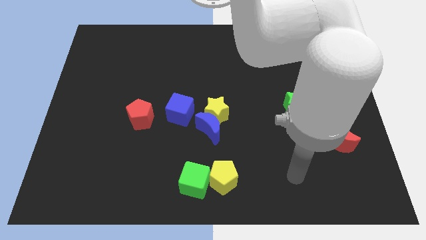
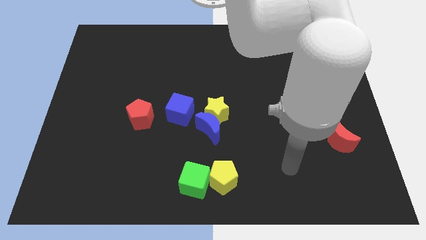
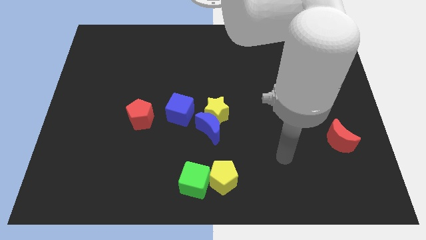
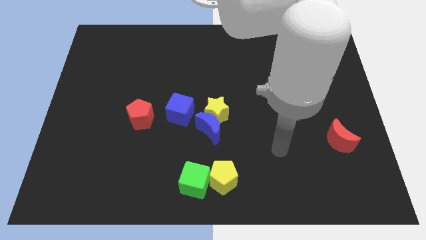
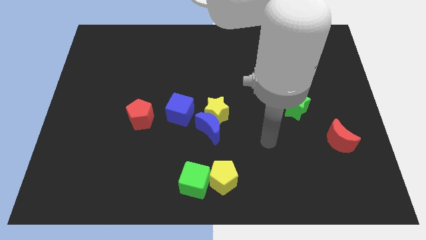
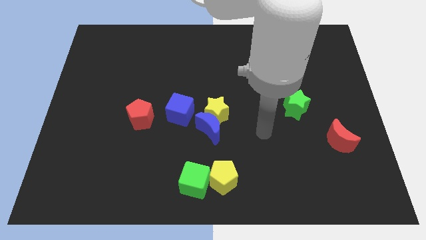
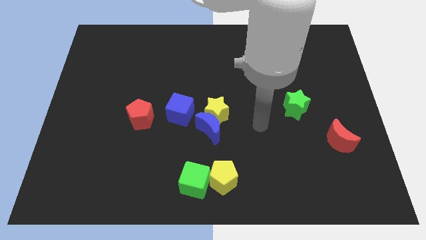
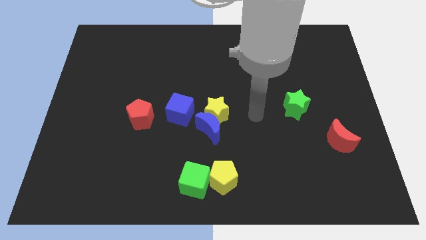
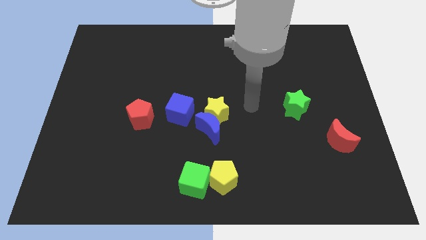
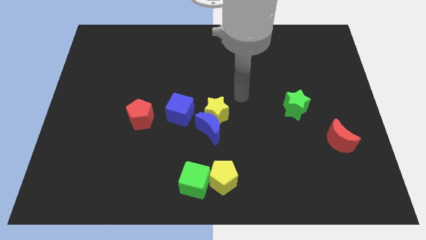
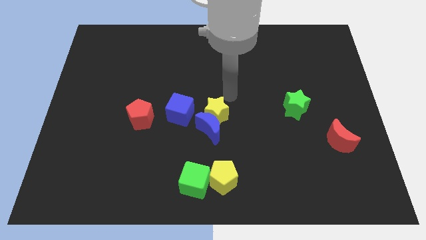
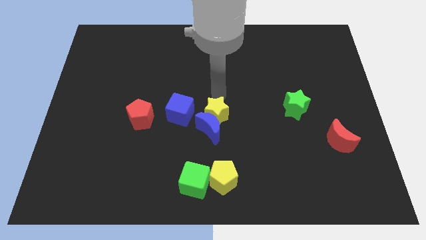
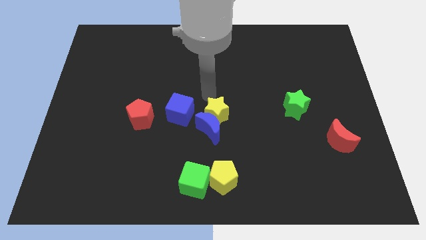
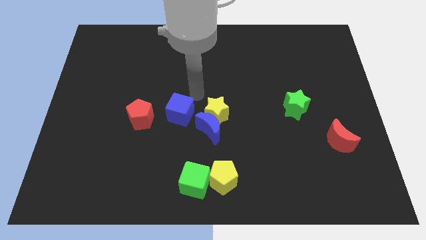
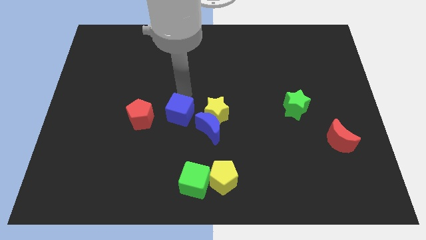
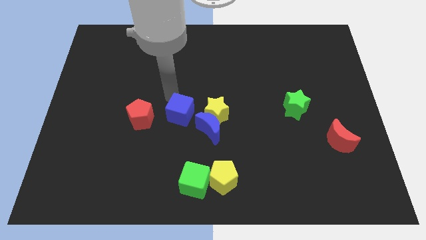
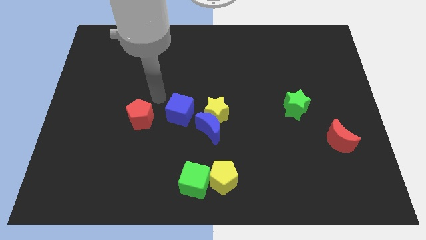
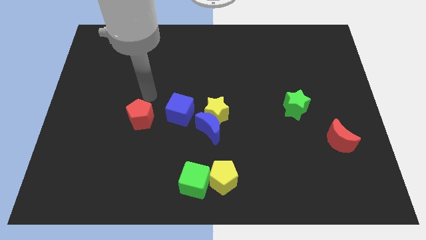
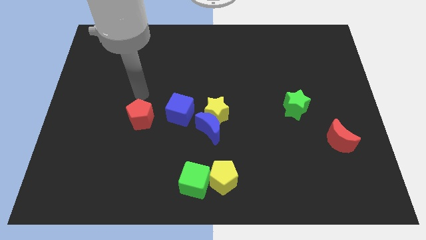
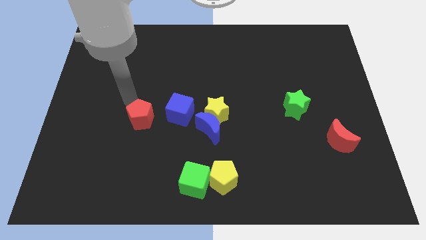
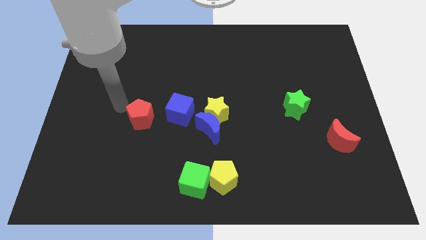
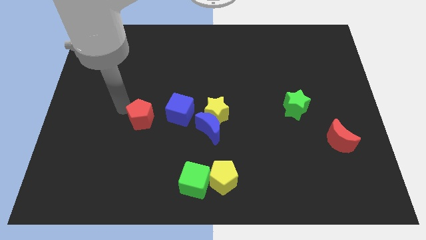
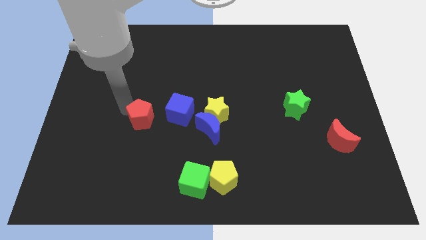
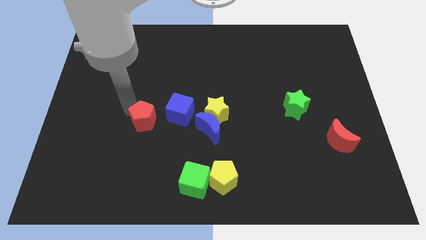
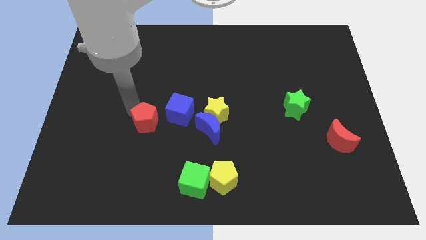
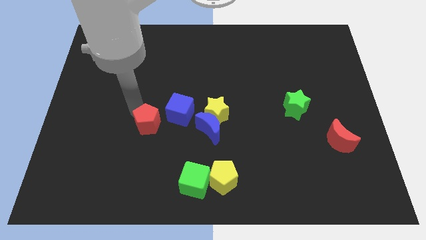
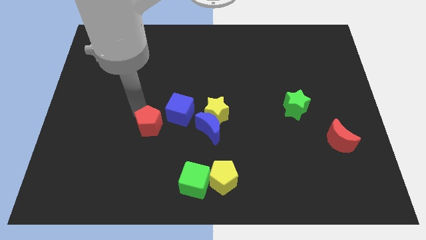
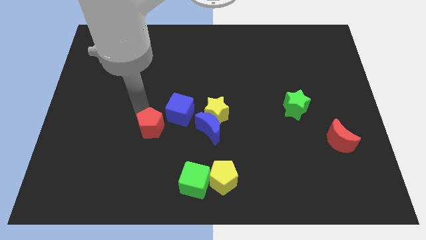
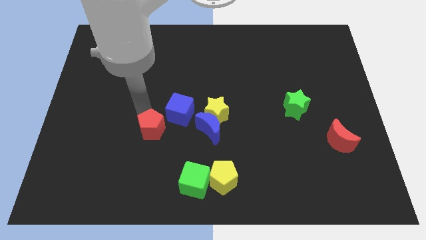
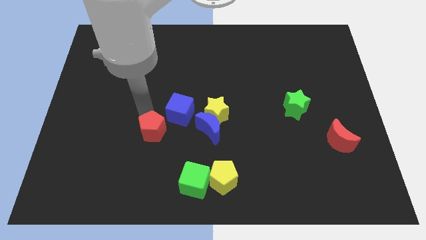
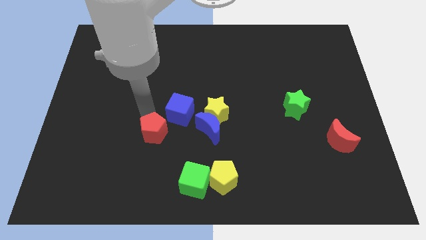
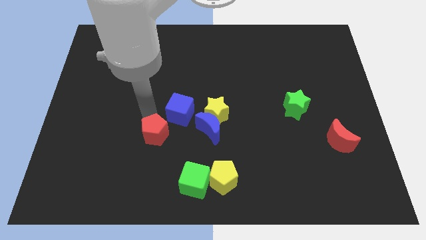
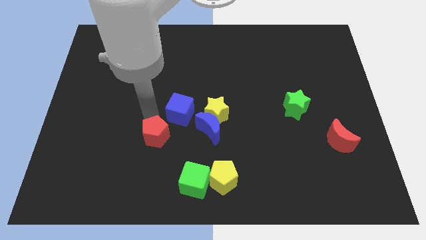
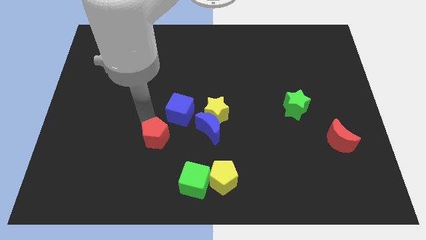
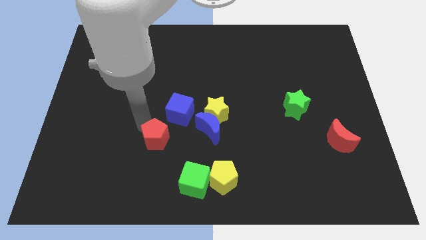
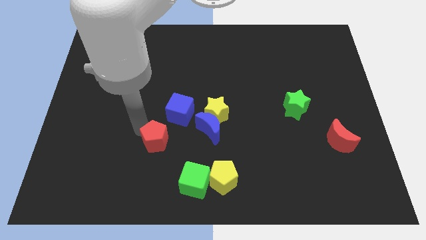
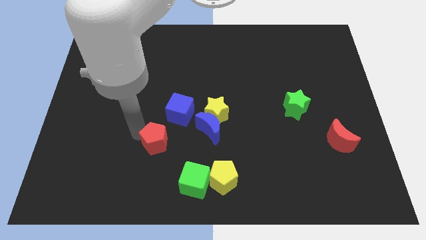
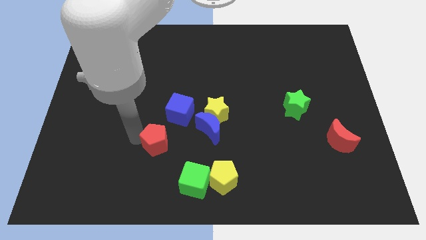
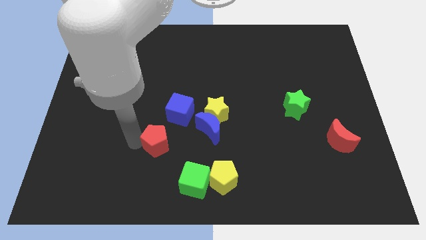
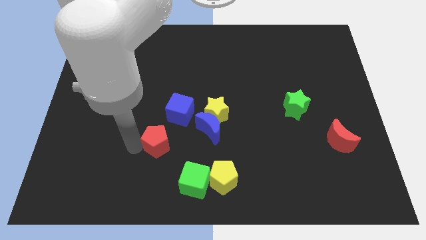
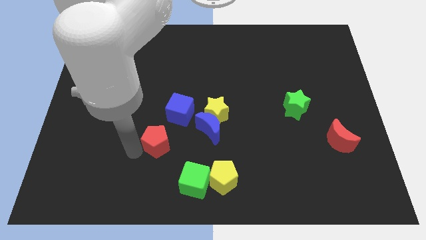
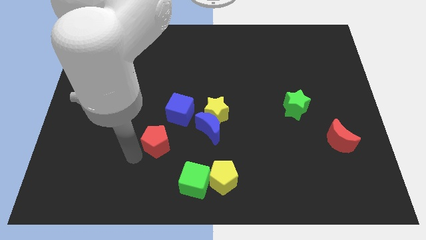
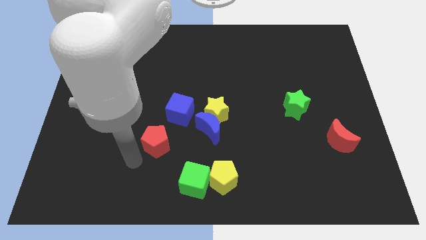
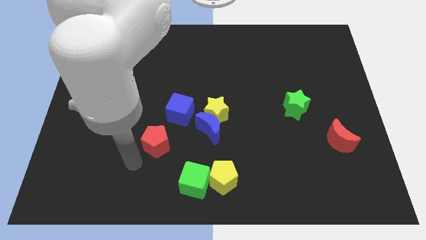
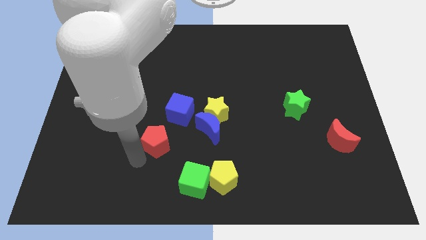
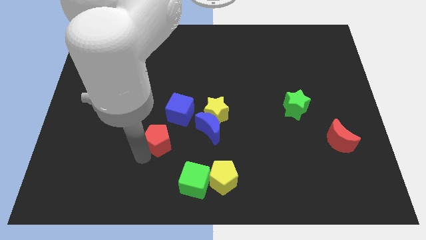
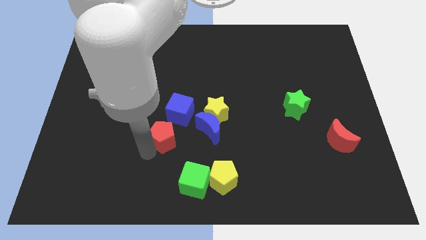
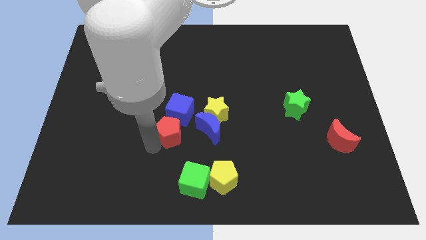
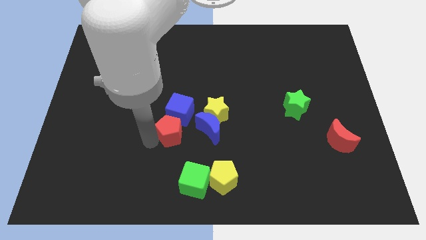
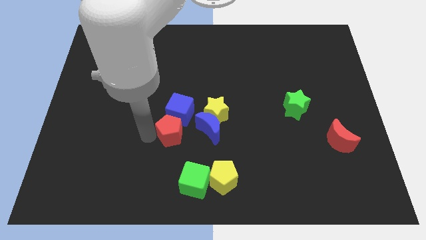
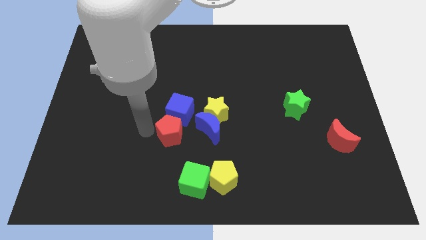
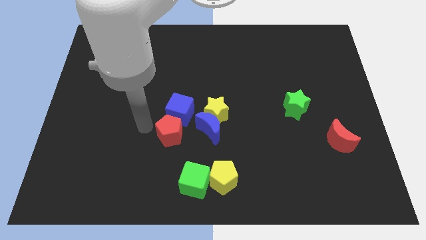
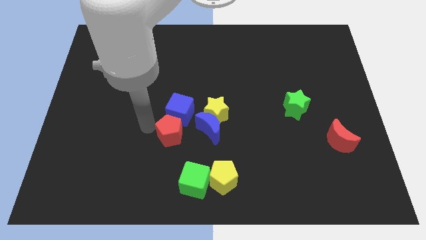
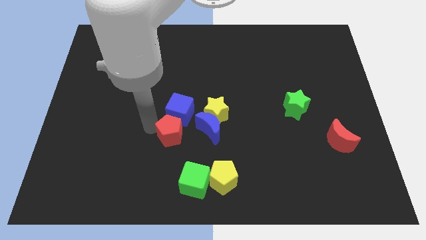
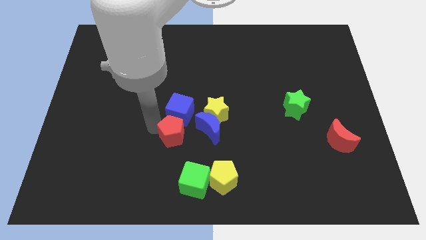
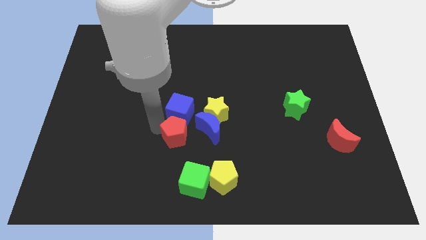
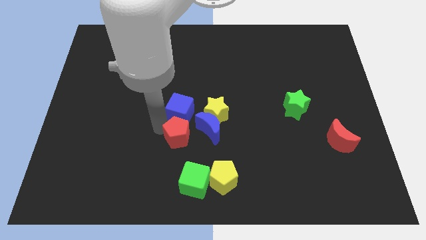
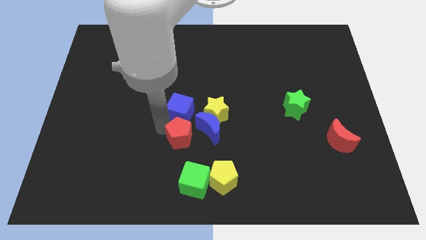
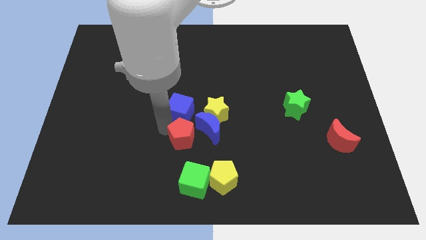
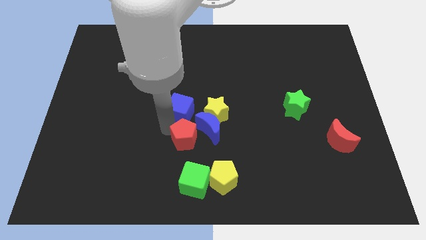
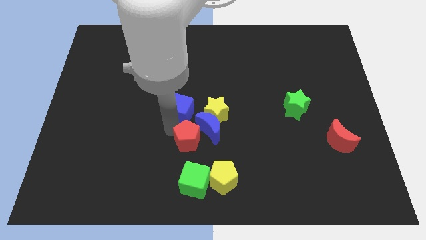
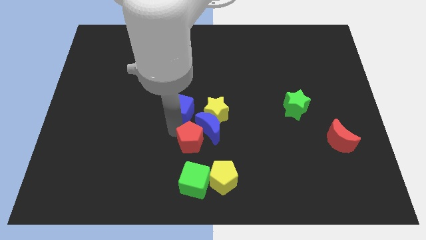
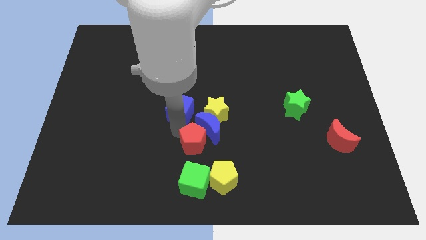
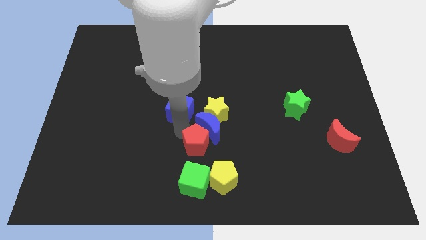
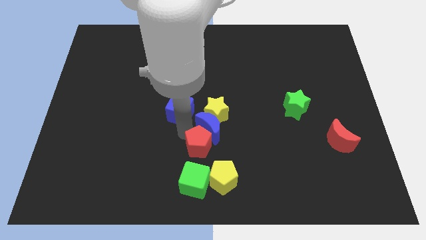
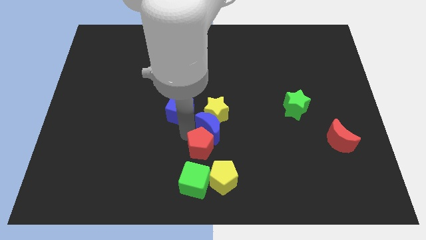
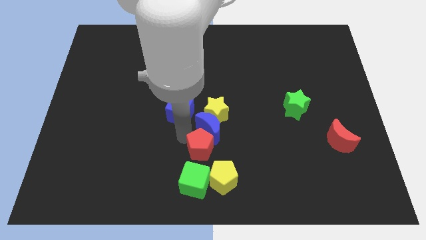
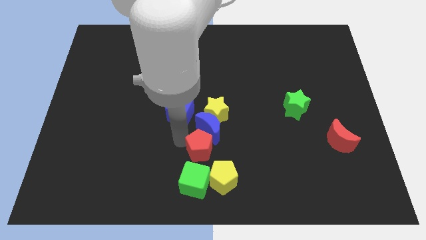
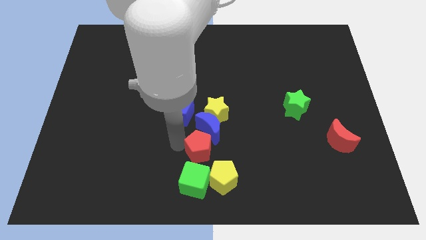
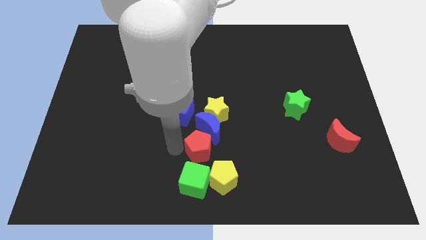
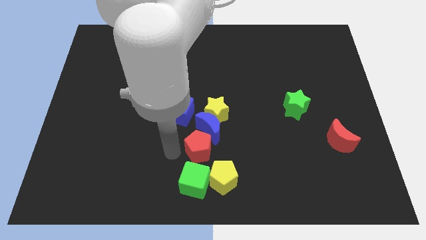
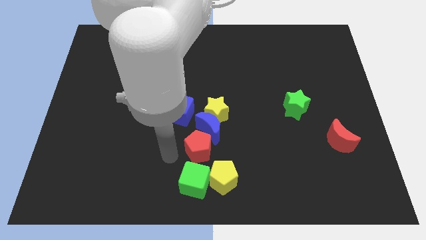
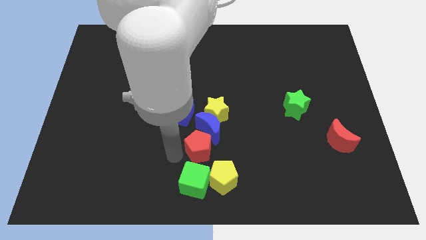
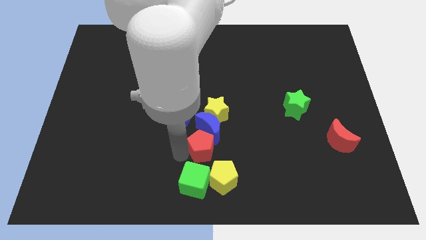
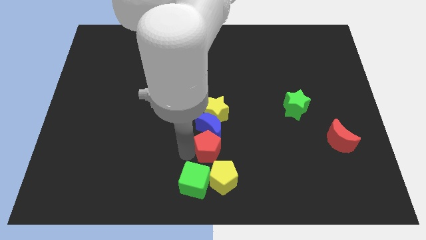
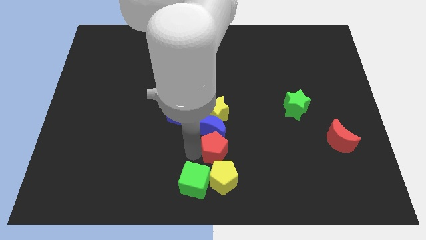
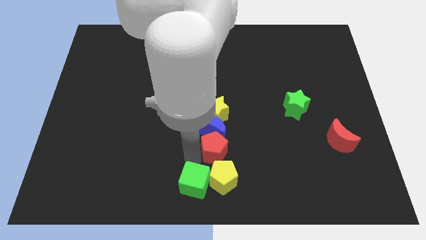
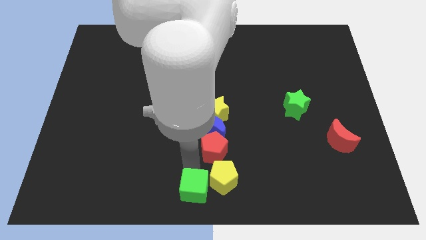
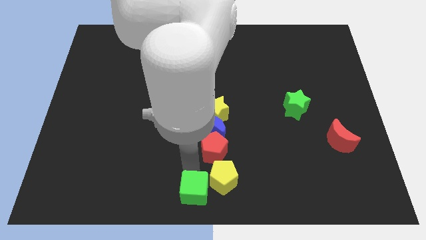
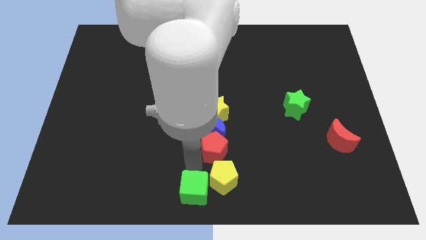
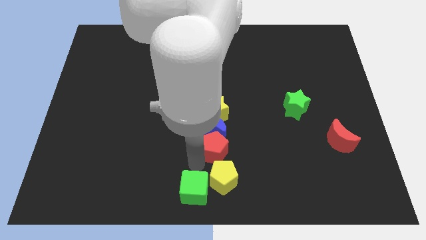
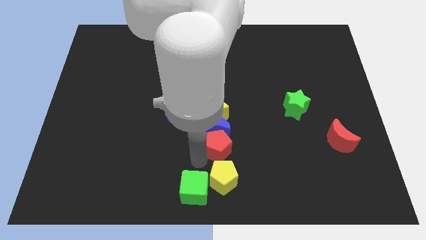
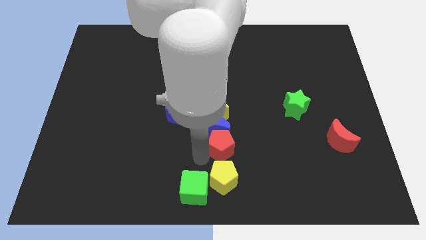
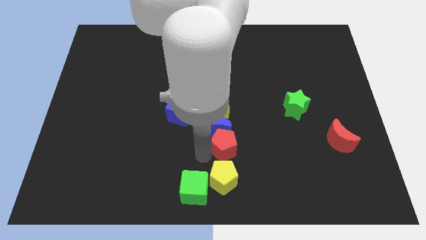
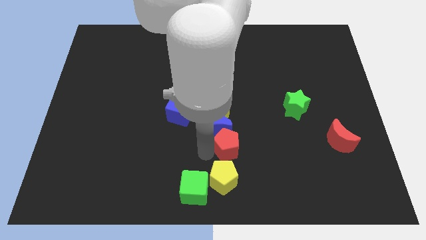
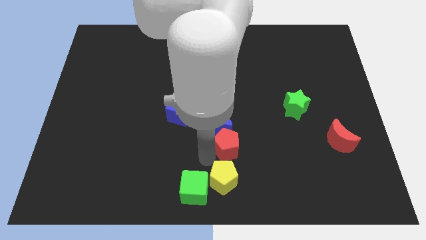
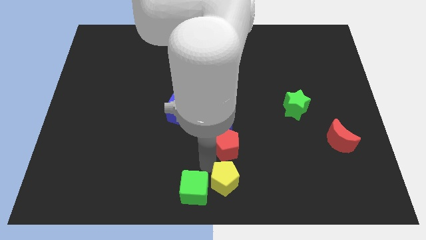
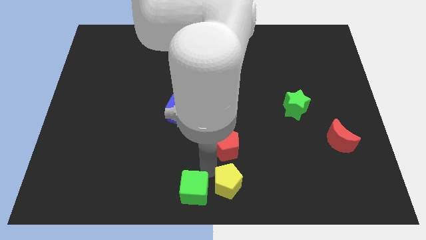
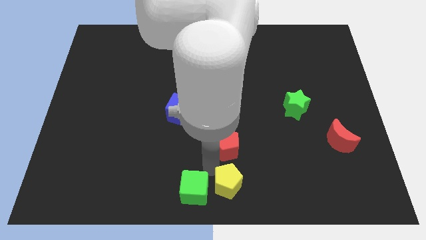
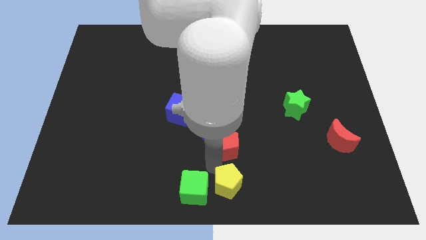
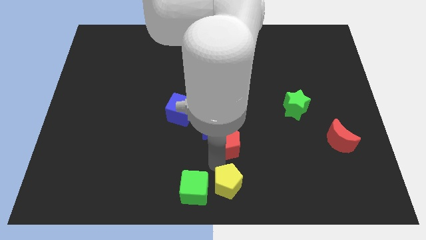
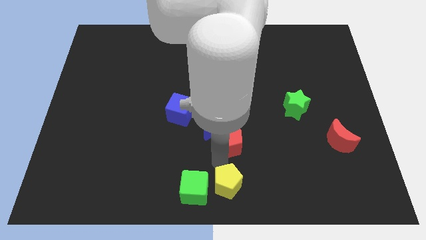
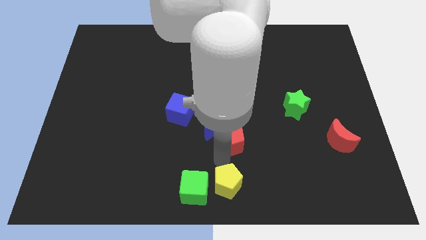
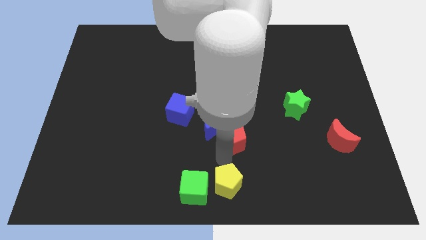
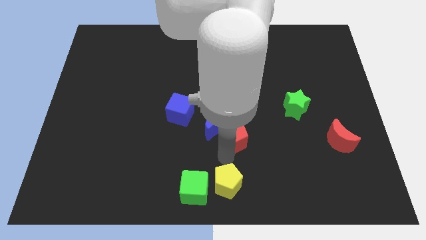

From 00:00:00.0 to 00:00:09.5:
move the red pentagon right
